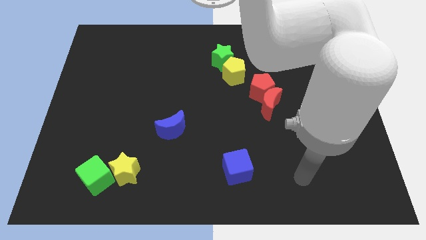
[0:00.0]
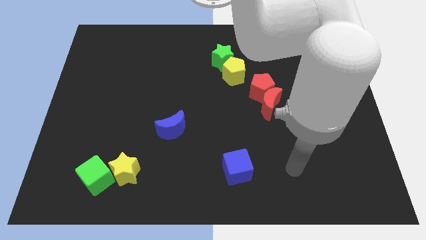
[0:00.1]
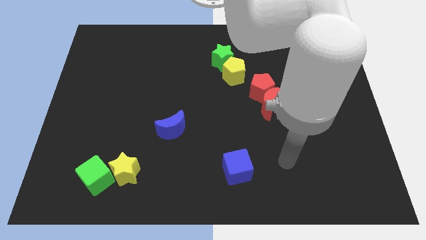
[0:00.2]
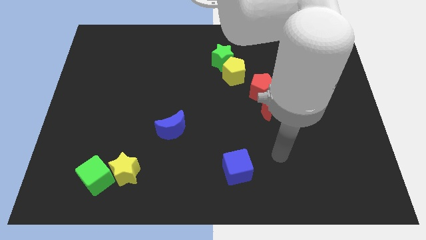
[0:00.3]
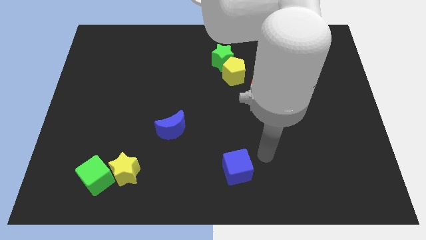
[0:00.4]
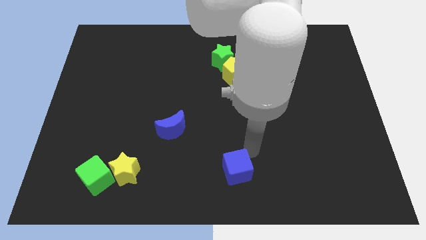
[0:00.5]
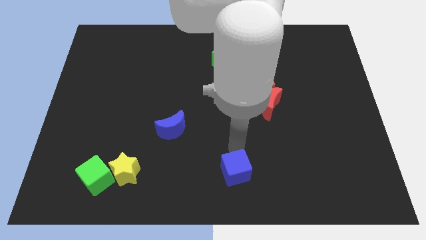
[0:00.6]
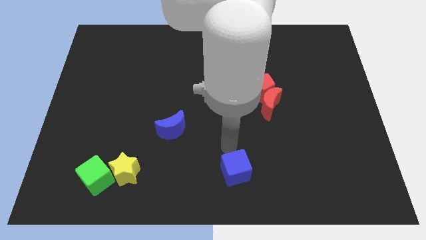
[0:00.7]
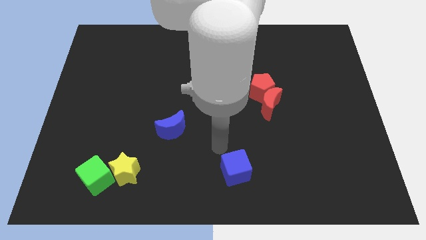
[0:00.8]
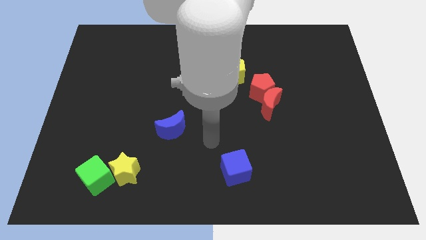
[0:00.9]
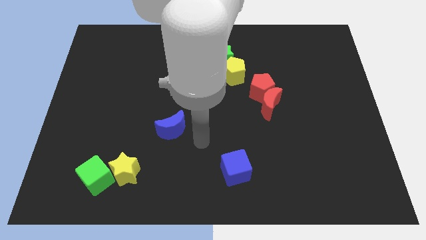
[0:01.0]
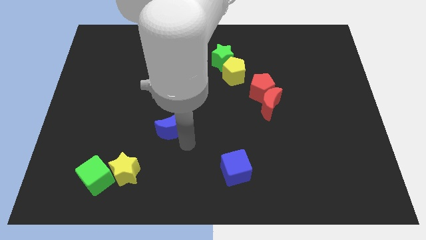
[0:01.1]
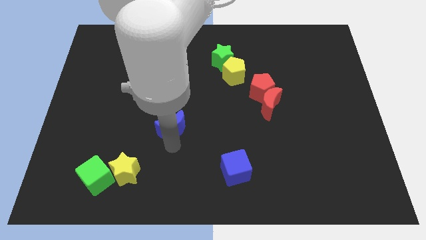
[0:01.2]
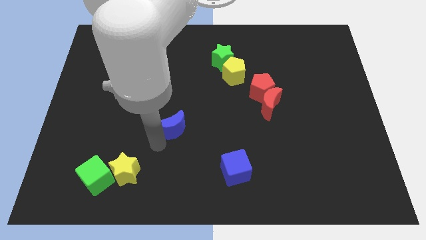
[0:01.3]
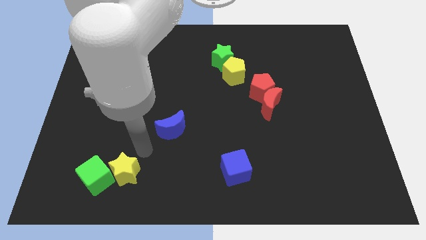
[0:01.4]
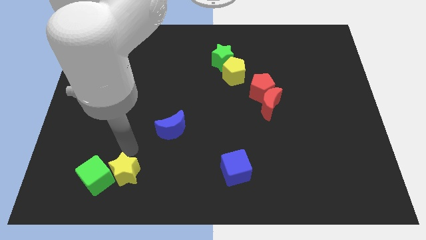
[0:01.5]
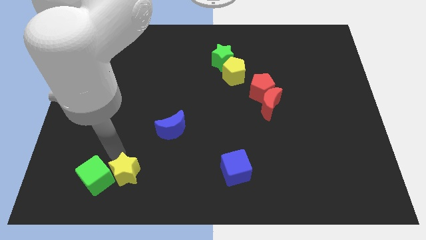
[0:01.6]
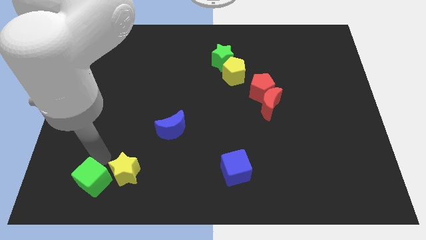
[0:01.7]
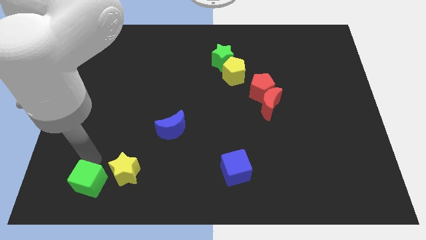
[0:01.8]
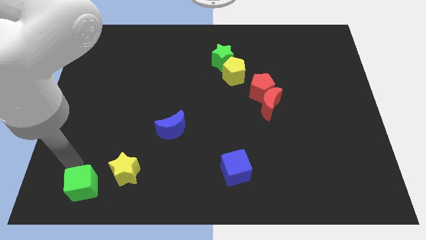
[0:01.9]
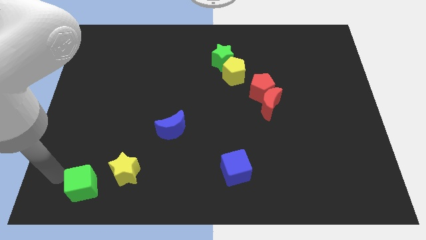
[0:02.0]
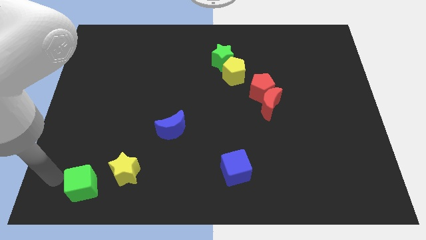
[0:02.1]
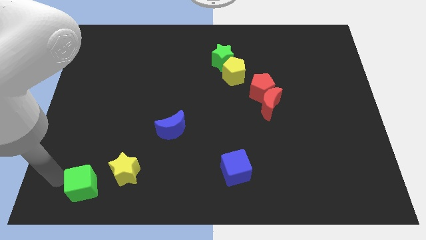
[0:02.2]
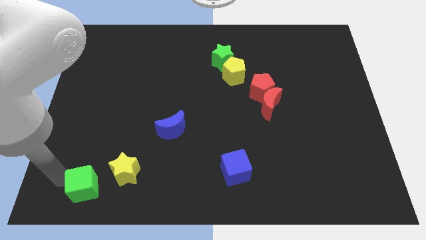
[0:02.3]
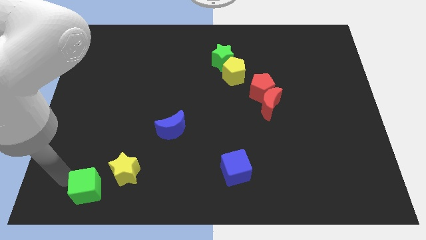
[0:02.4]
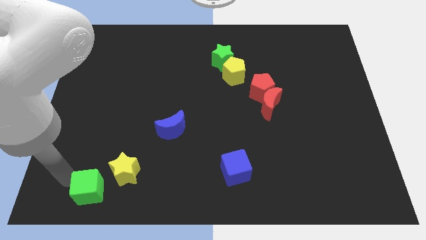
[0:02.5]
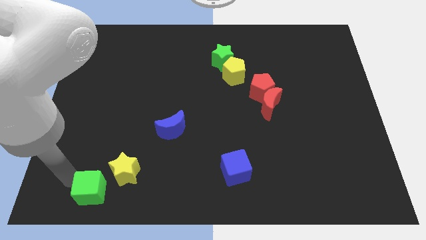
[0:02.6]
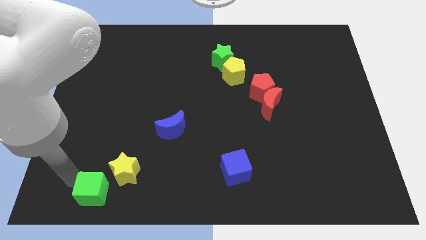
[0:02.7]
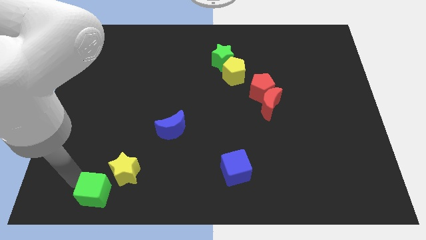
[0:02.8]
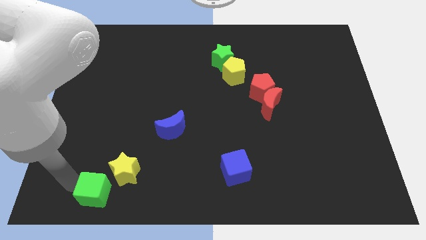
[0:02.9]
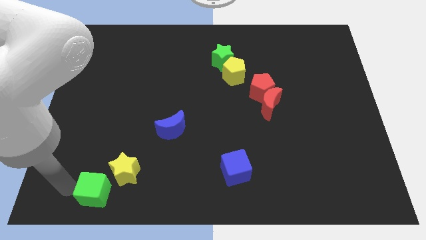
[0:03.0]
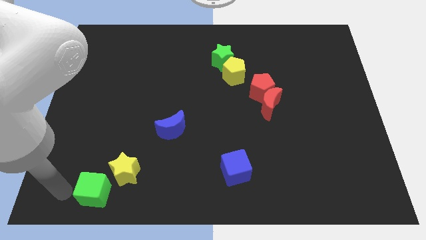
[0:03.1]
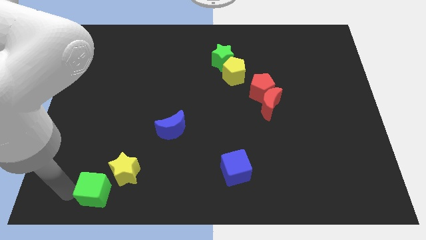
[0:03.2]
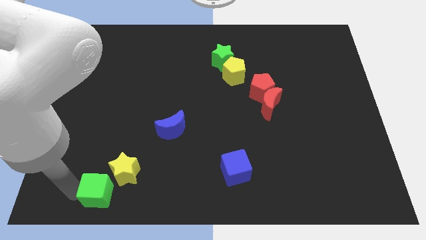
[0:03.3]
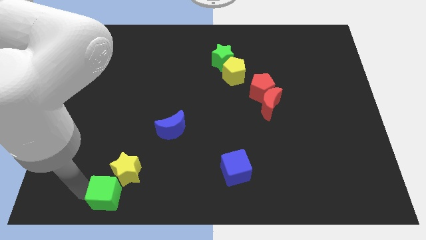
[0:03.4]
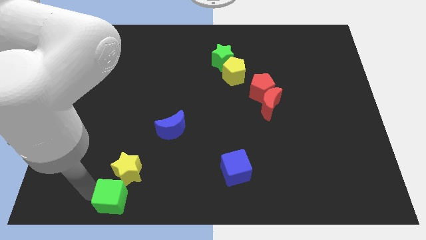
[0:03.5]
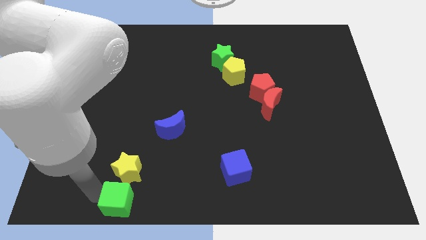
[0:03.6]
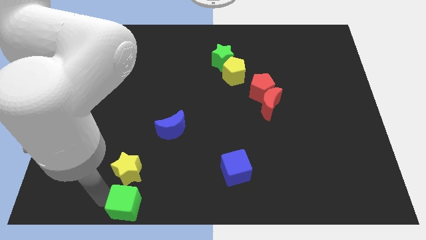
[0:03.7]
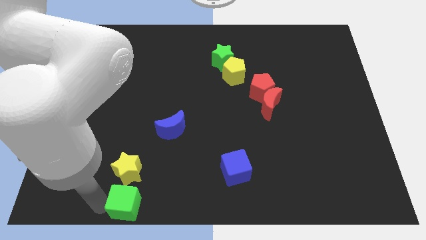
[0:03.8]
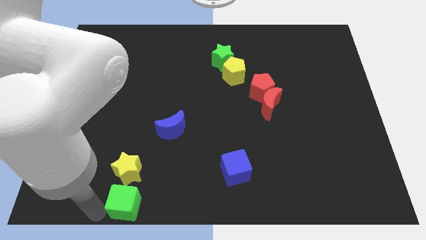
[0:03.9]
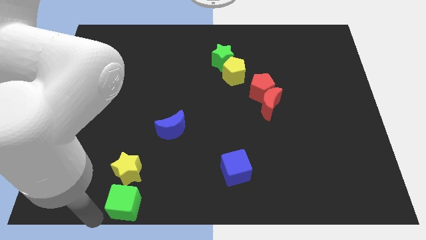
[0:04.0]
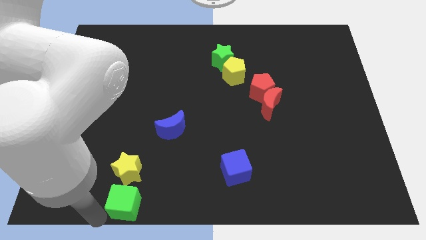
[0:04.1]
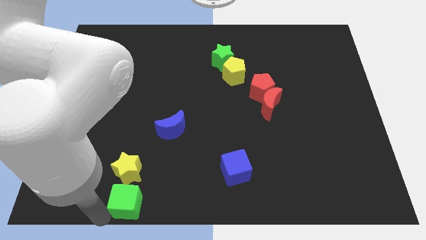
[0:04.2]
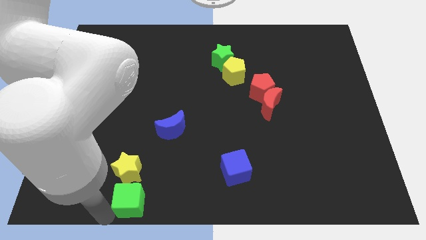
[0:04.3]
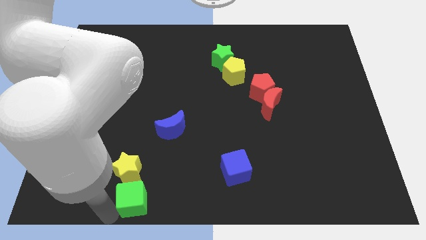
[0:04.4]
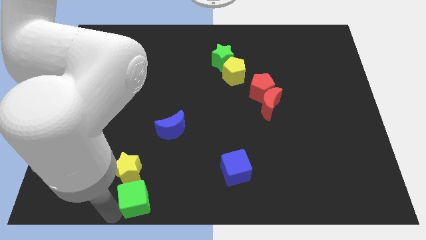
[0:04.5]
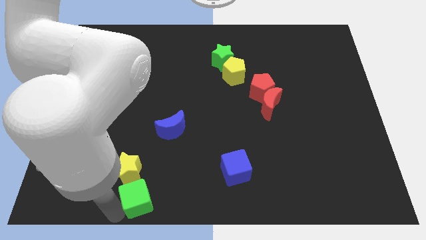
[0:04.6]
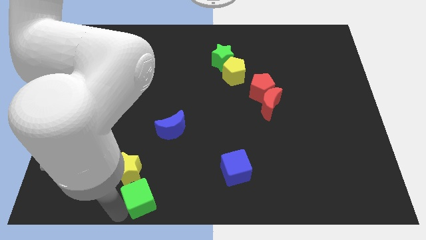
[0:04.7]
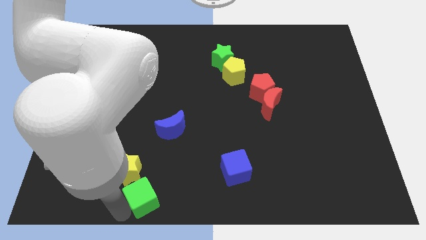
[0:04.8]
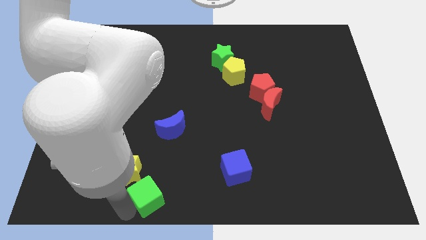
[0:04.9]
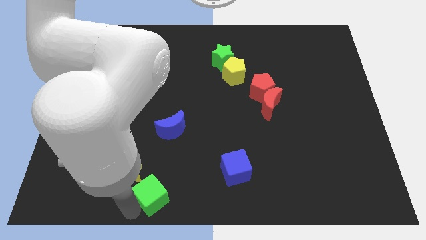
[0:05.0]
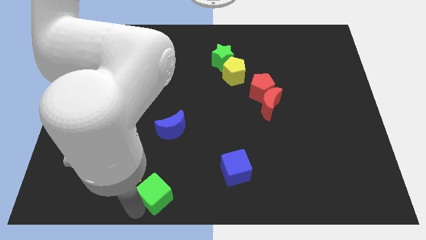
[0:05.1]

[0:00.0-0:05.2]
move the green cube right of the yellow star

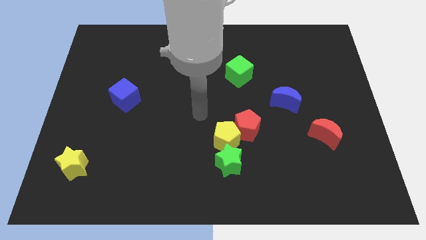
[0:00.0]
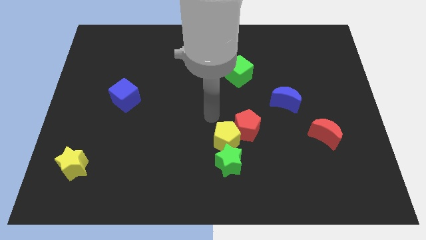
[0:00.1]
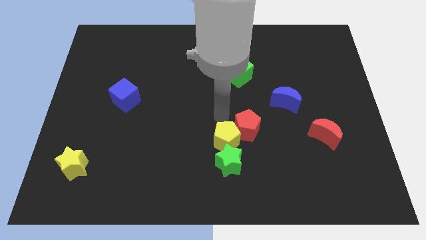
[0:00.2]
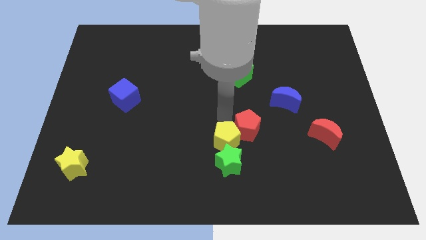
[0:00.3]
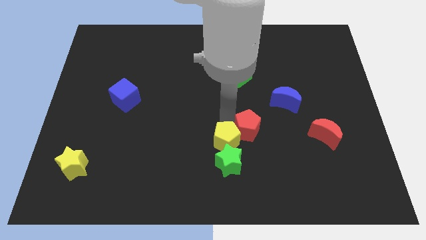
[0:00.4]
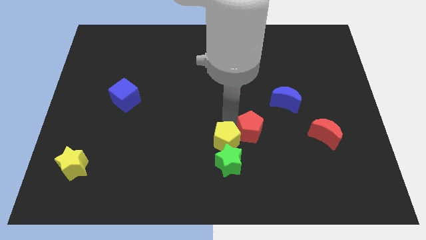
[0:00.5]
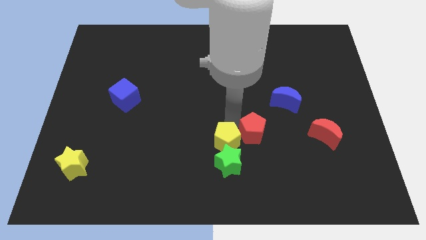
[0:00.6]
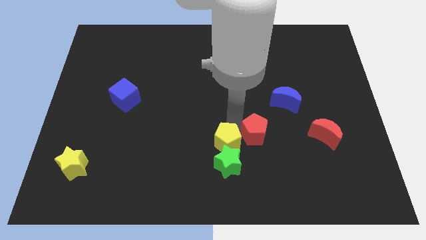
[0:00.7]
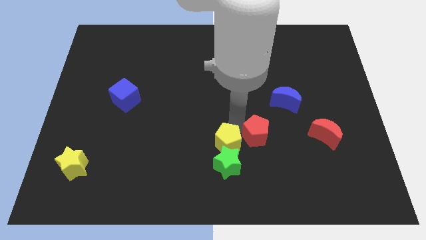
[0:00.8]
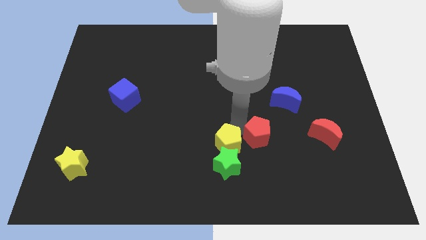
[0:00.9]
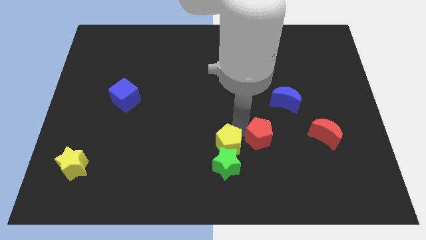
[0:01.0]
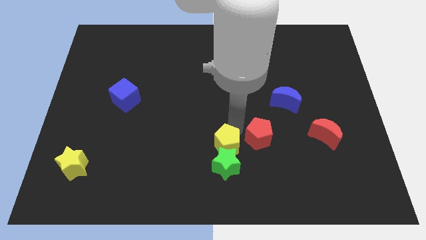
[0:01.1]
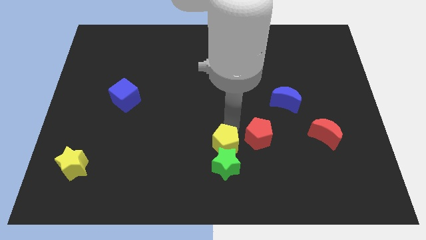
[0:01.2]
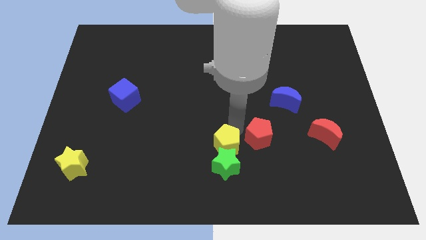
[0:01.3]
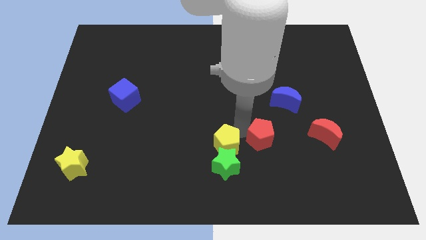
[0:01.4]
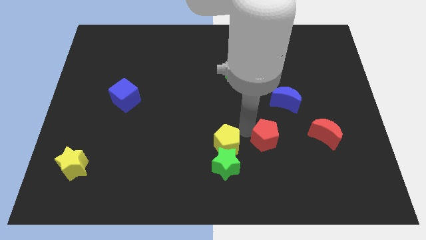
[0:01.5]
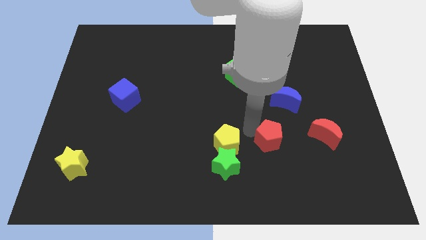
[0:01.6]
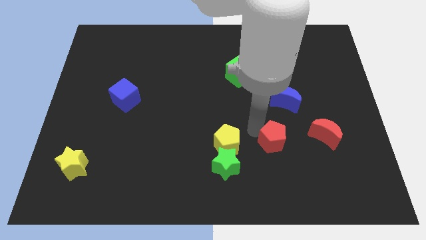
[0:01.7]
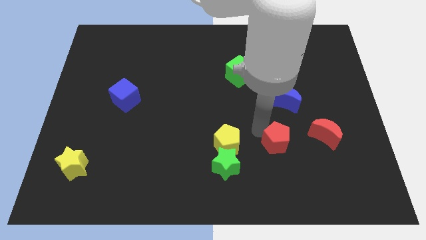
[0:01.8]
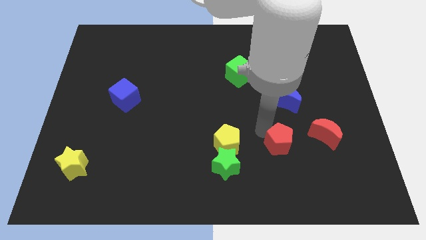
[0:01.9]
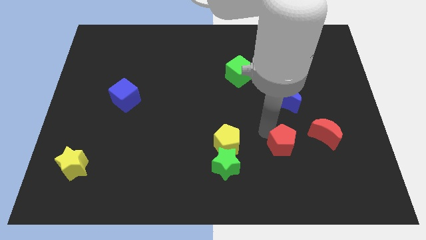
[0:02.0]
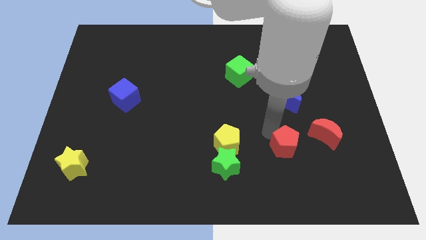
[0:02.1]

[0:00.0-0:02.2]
put the red pentagon to the bottom left side of the red moon
